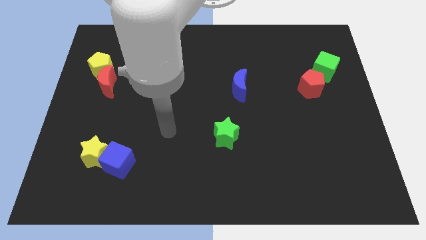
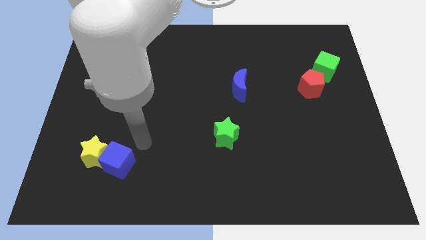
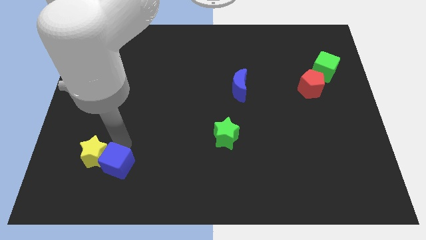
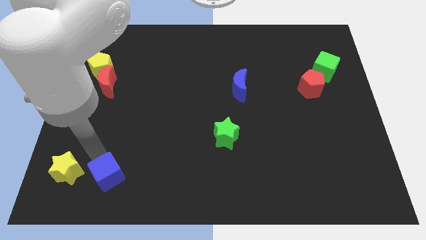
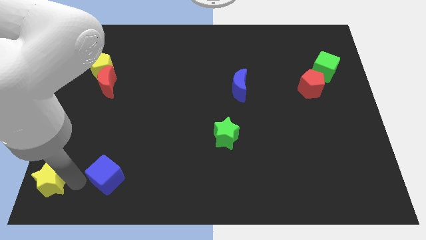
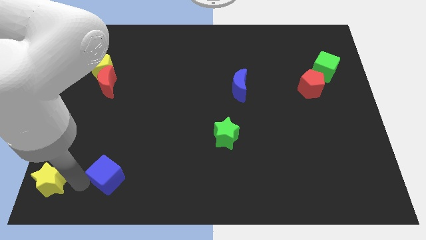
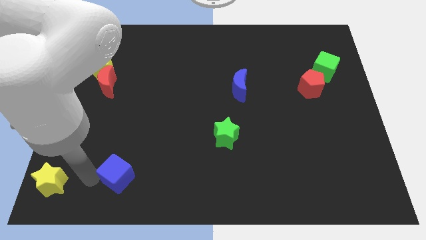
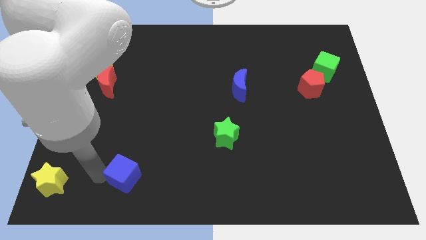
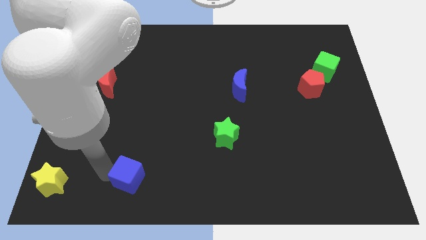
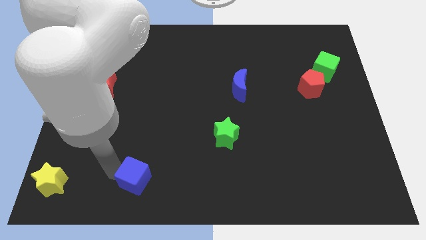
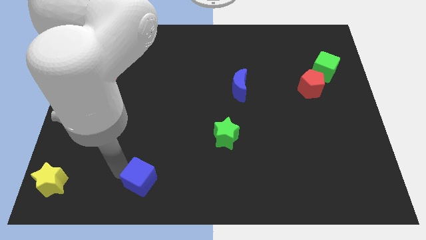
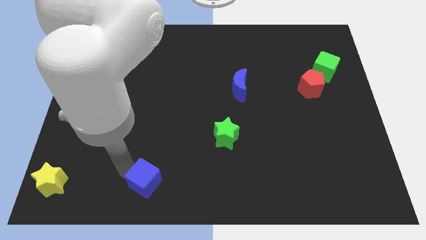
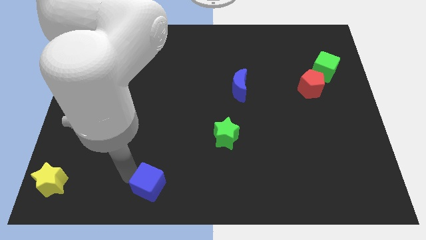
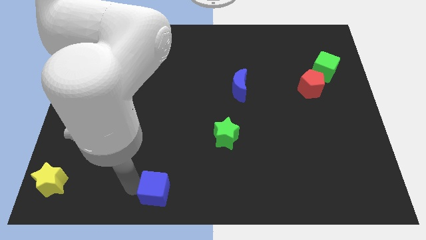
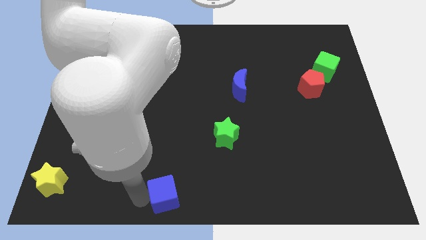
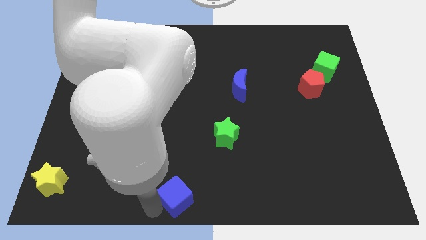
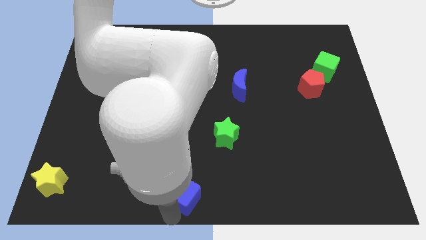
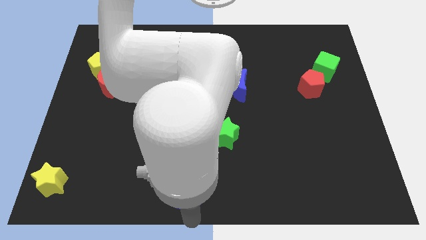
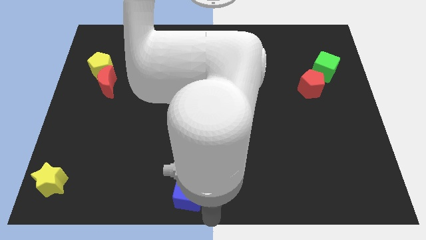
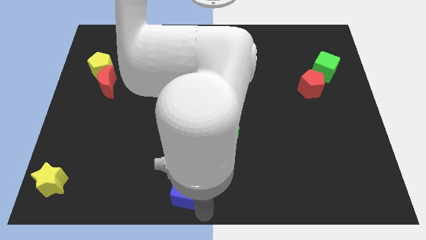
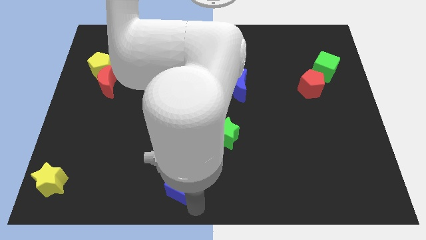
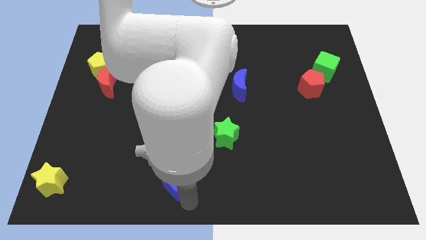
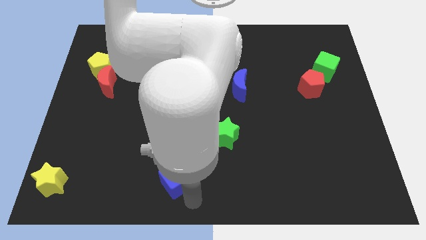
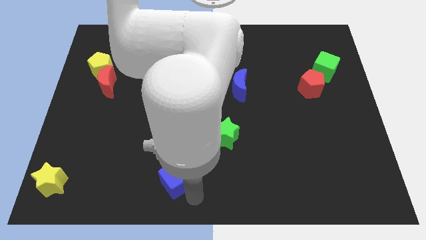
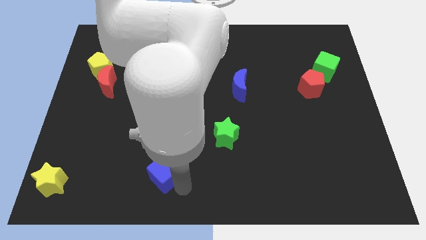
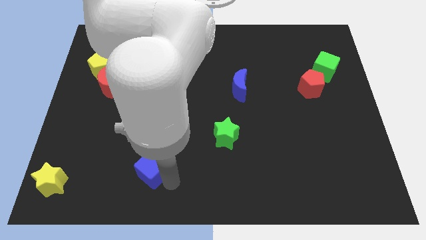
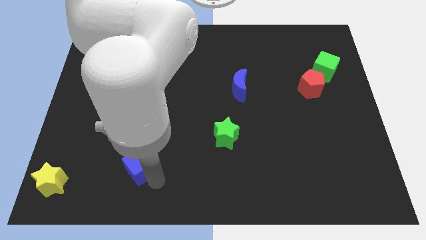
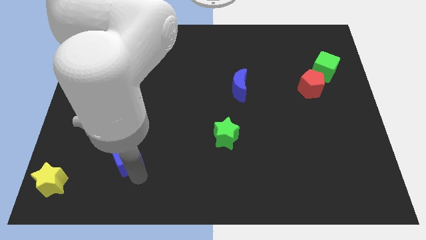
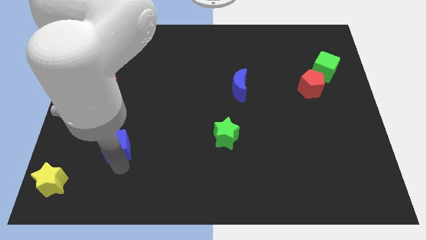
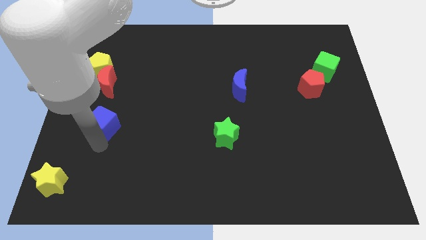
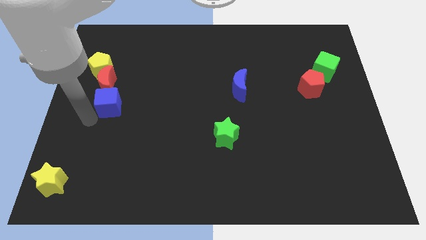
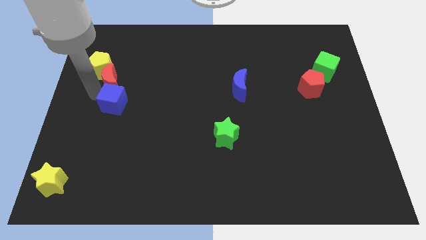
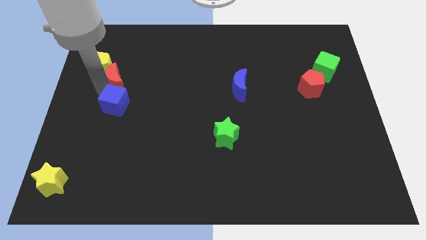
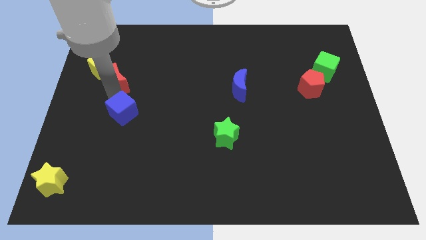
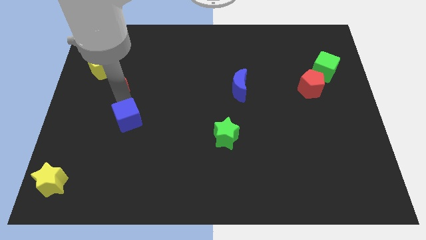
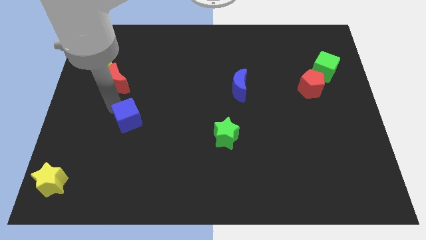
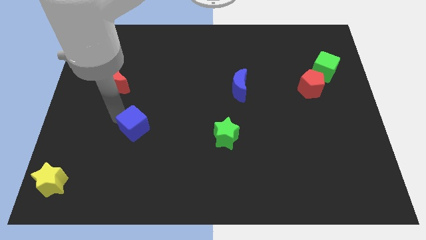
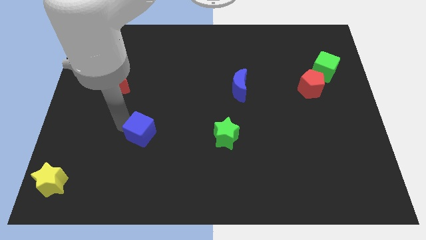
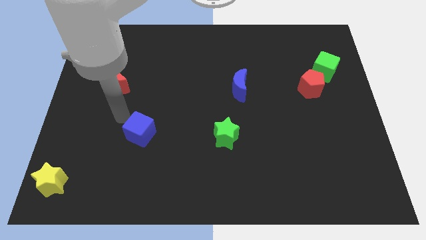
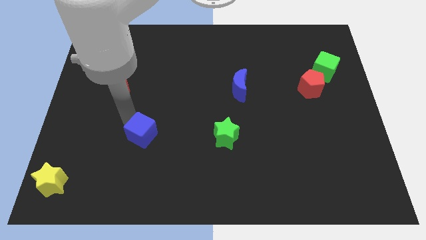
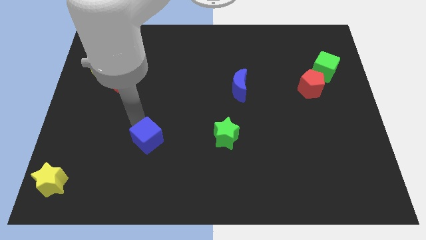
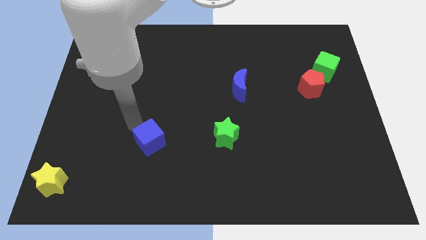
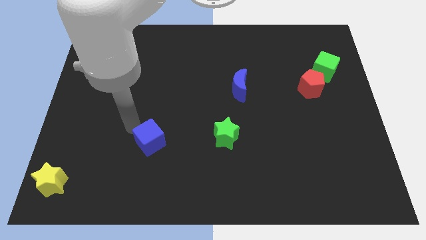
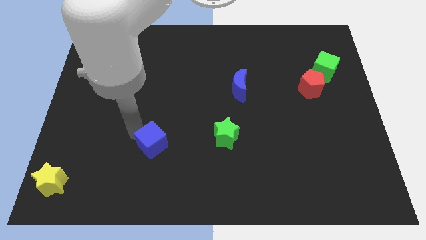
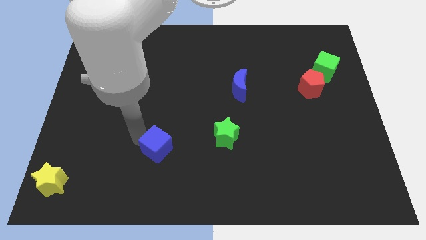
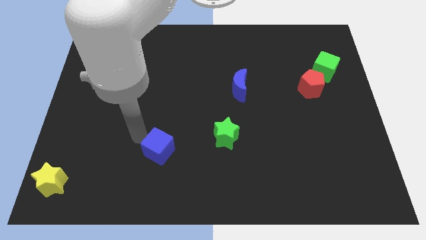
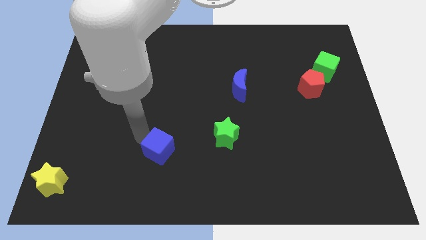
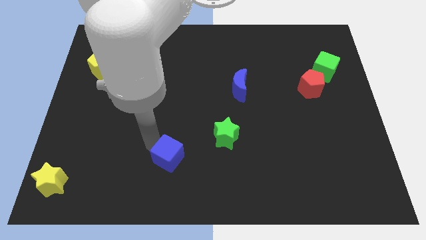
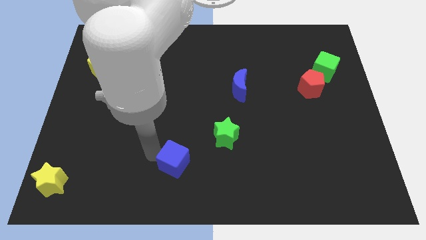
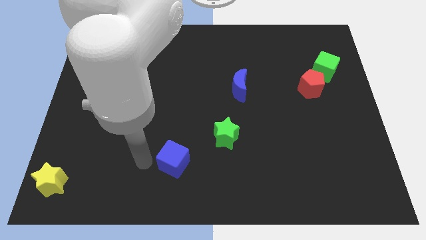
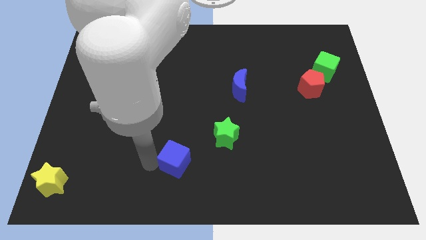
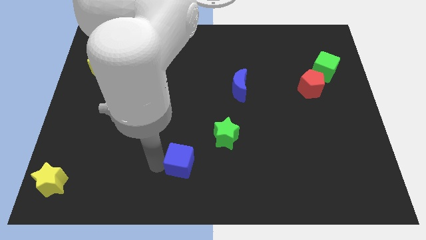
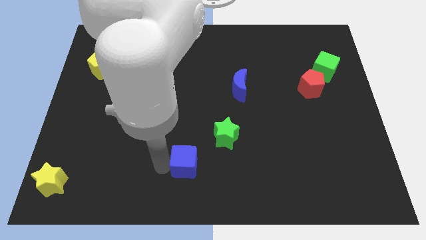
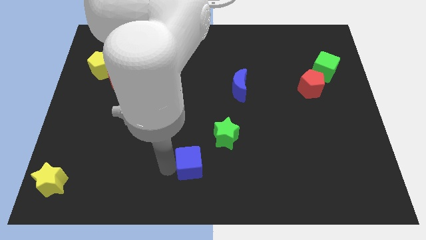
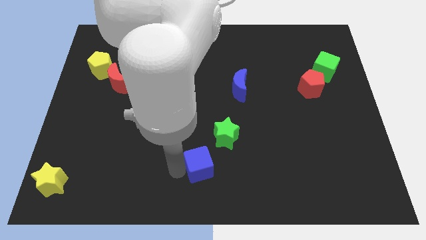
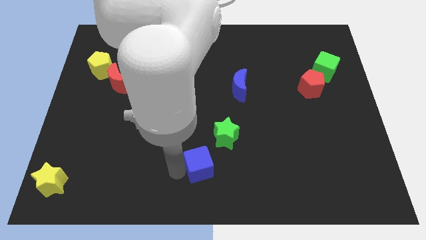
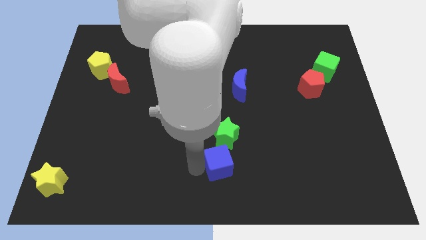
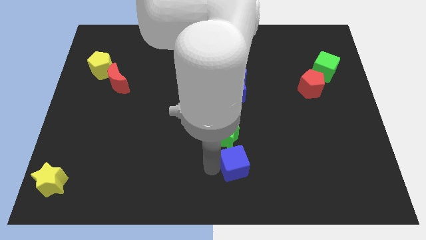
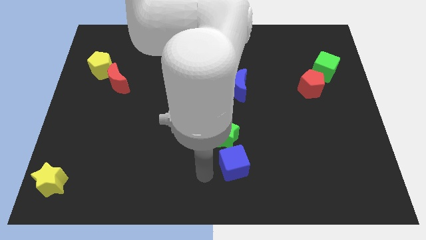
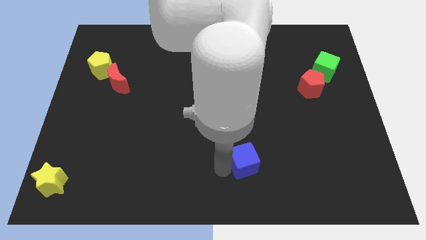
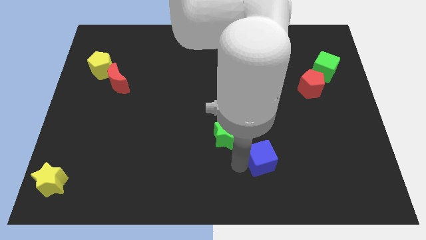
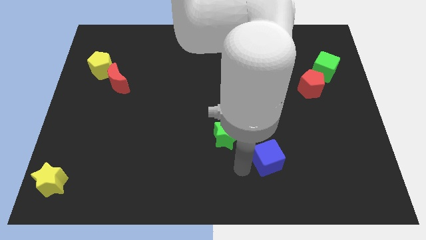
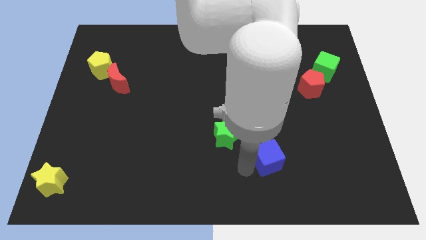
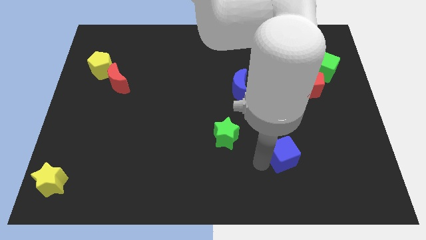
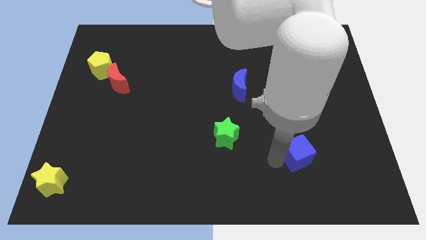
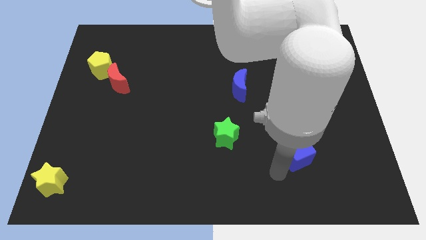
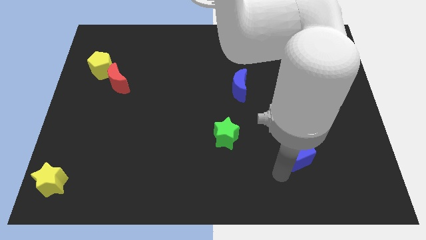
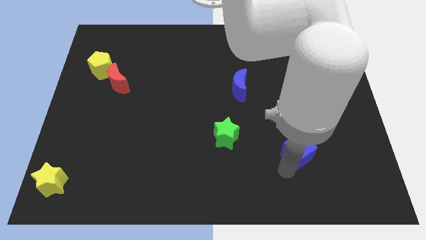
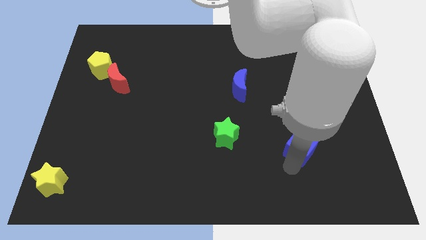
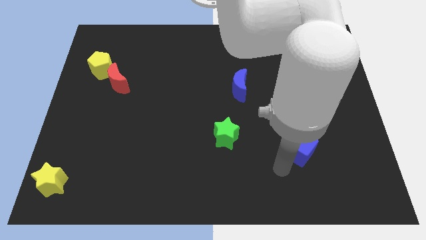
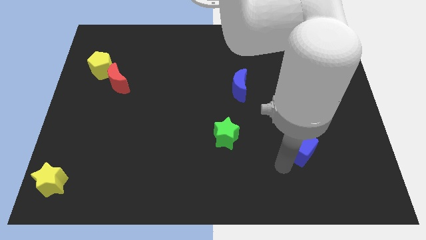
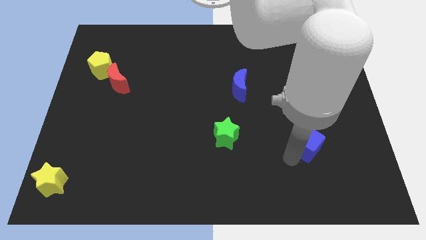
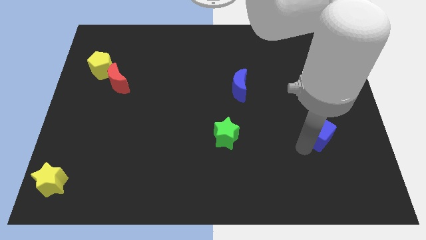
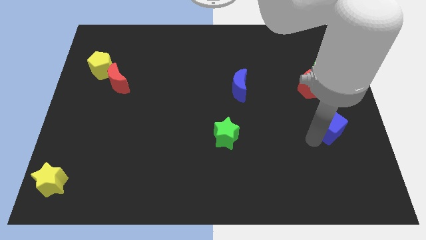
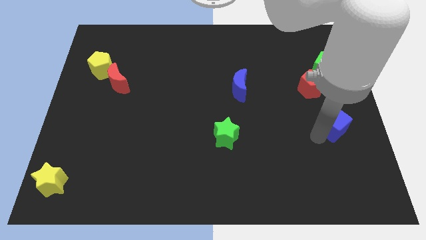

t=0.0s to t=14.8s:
slide the blue cube to the center right
